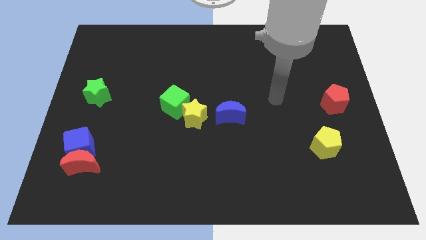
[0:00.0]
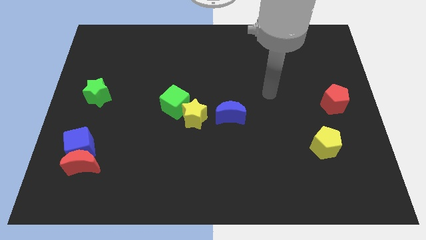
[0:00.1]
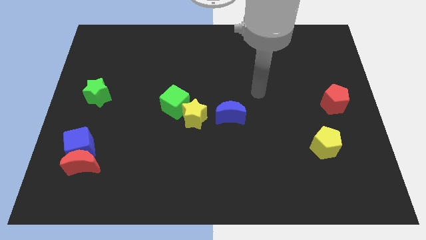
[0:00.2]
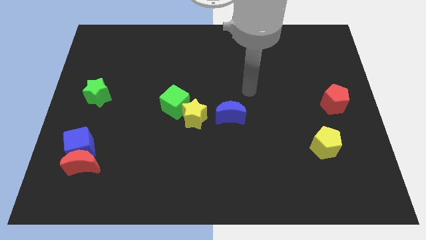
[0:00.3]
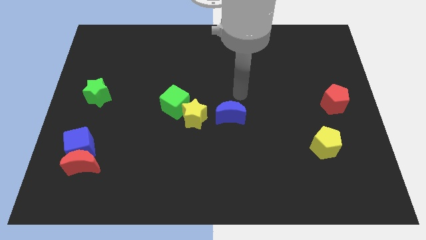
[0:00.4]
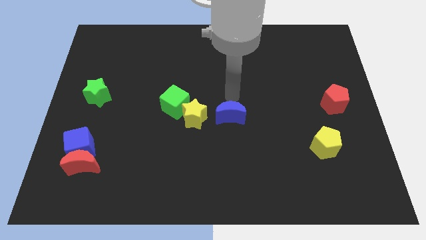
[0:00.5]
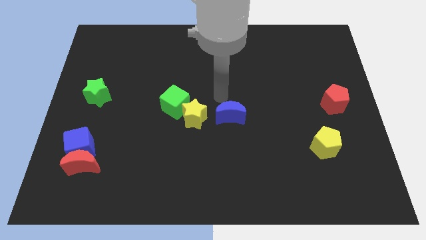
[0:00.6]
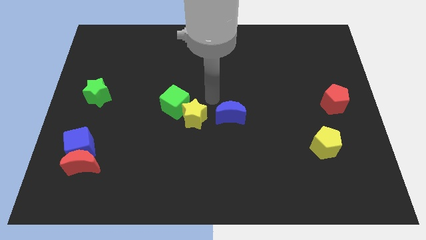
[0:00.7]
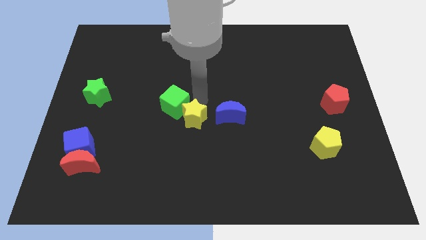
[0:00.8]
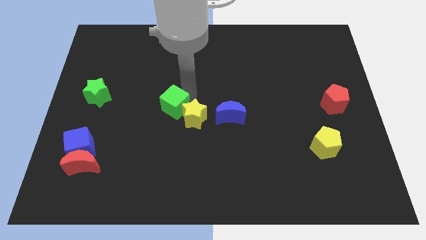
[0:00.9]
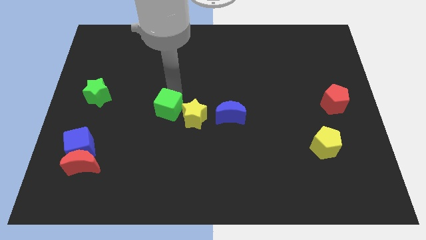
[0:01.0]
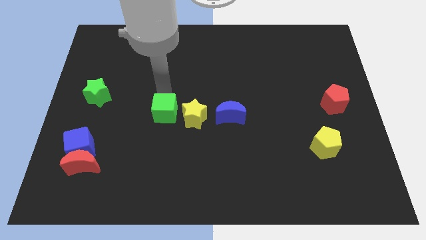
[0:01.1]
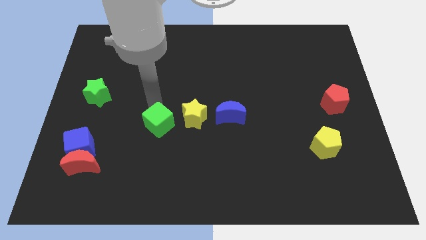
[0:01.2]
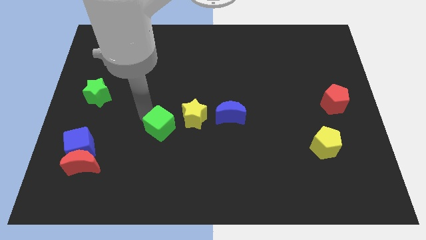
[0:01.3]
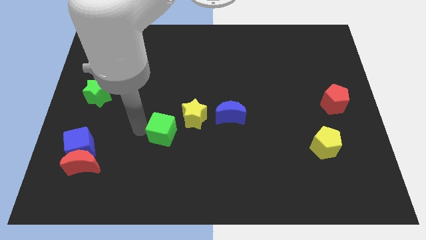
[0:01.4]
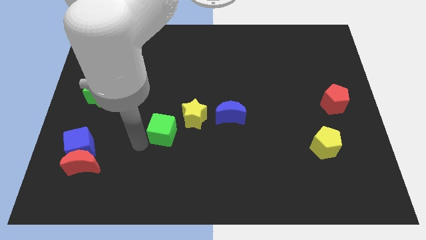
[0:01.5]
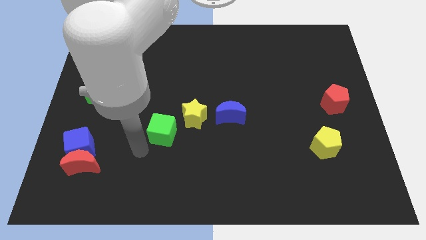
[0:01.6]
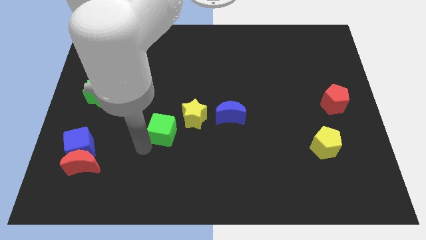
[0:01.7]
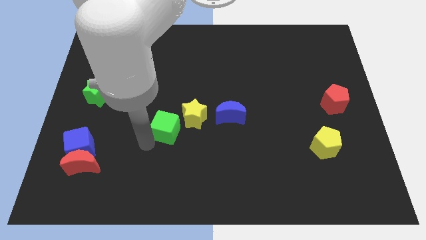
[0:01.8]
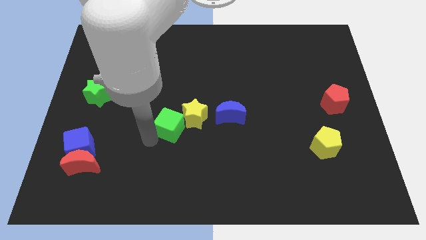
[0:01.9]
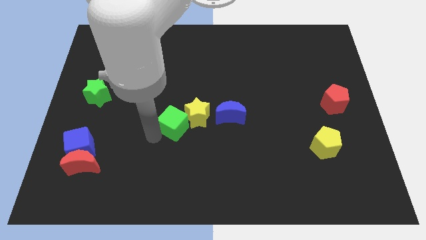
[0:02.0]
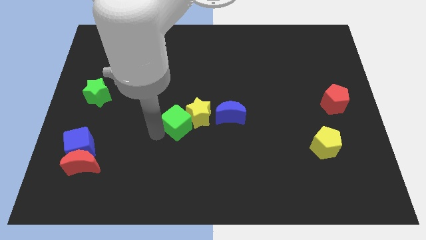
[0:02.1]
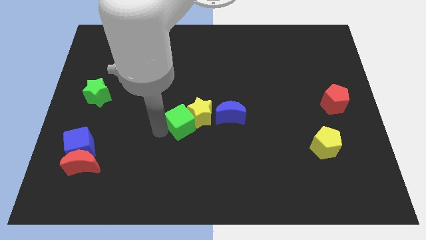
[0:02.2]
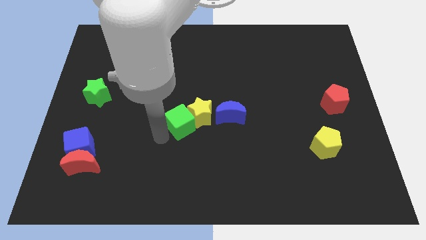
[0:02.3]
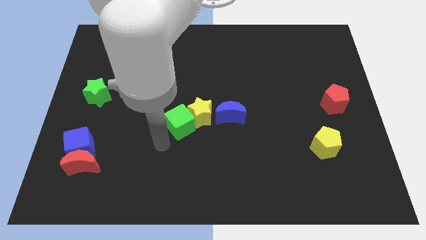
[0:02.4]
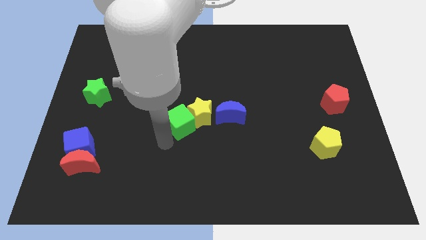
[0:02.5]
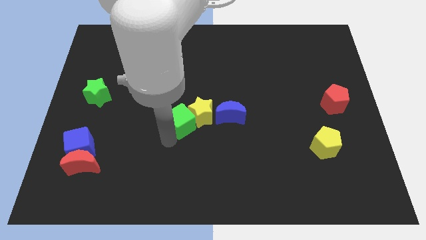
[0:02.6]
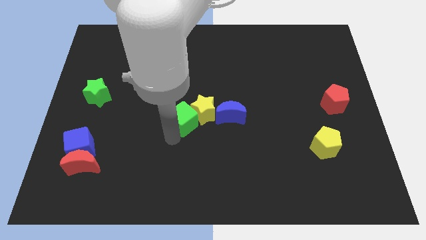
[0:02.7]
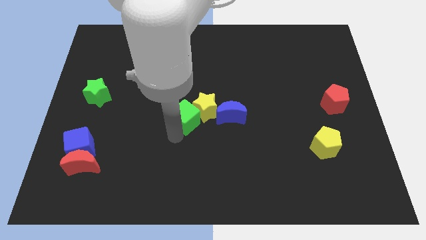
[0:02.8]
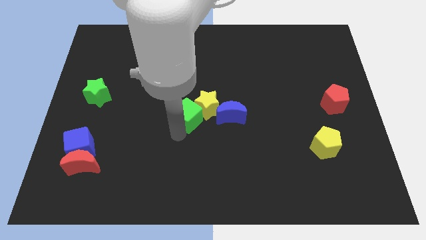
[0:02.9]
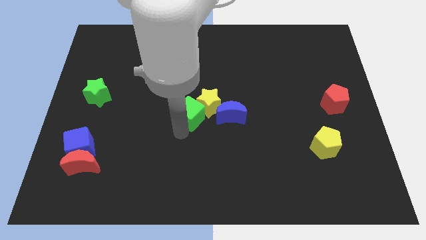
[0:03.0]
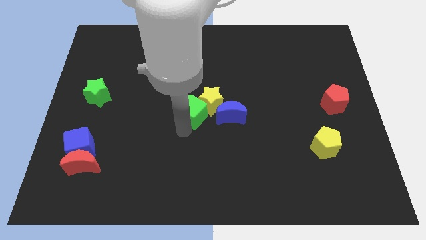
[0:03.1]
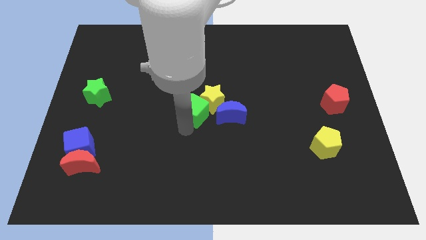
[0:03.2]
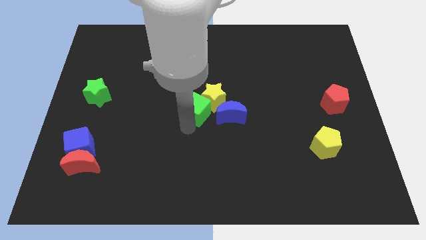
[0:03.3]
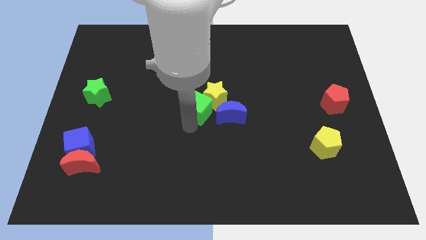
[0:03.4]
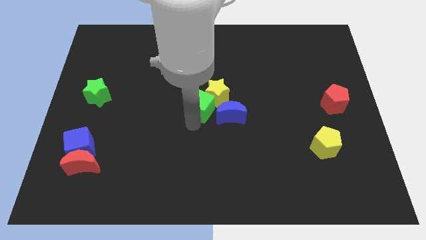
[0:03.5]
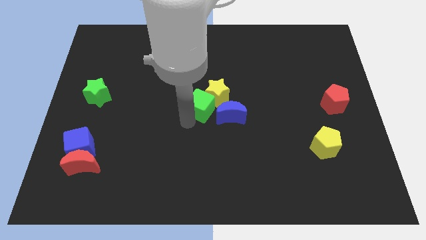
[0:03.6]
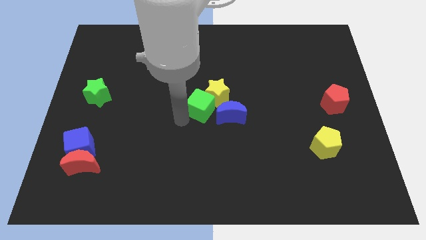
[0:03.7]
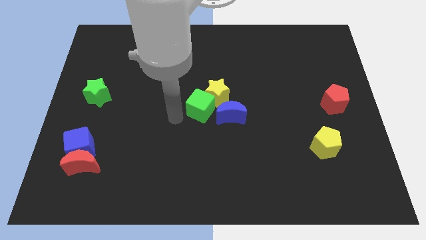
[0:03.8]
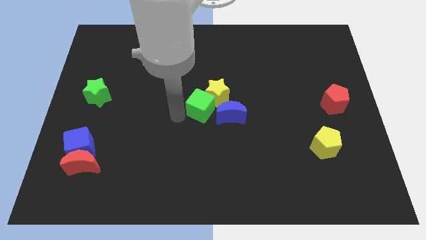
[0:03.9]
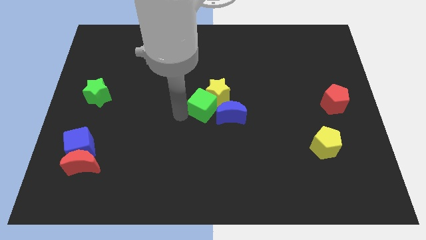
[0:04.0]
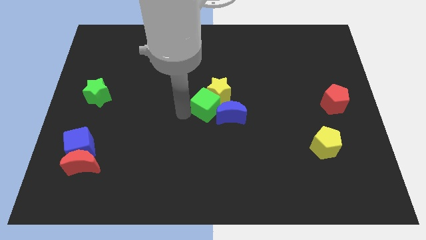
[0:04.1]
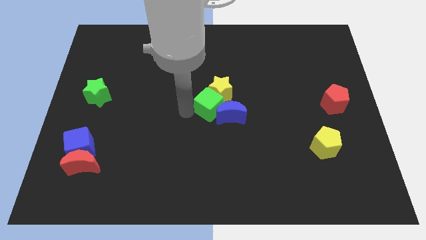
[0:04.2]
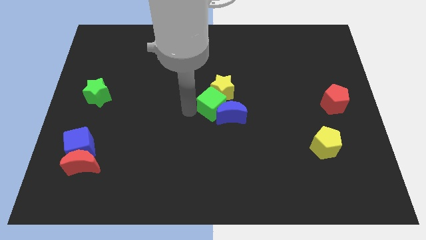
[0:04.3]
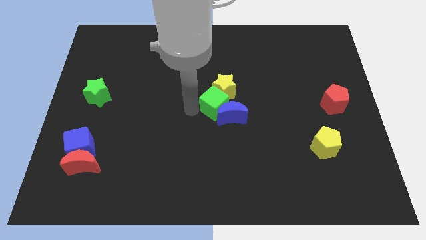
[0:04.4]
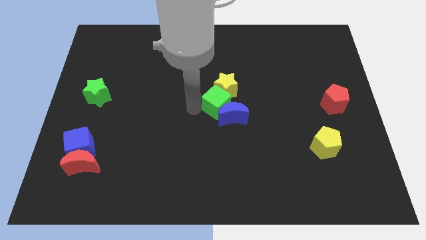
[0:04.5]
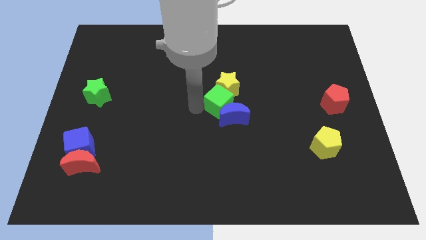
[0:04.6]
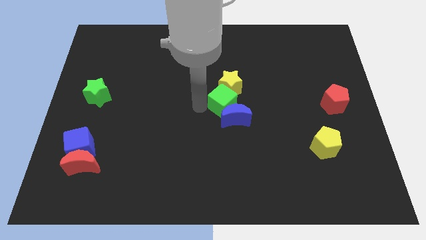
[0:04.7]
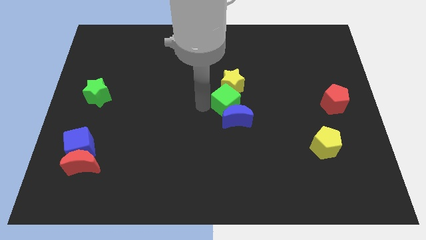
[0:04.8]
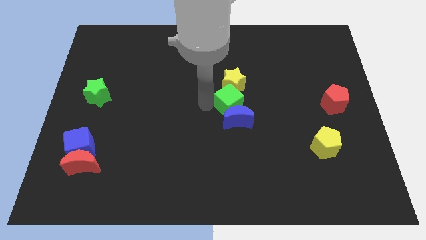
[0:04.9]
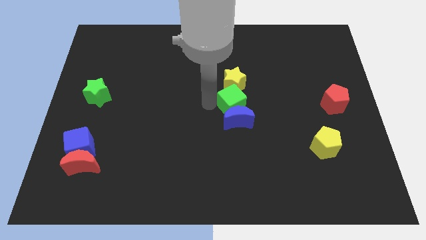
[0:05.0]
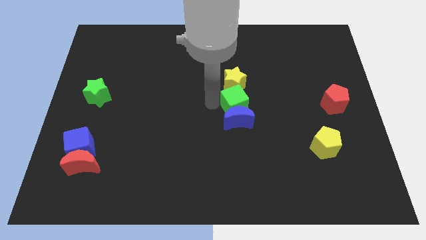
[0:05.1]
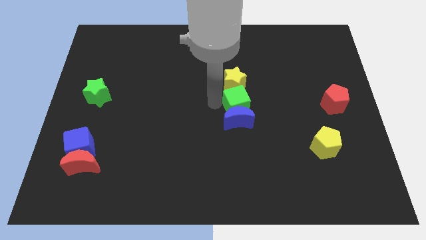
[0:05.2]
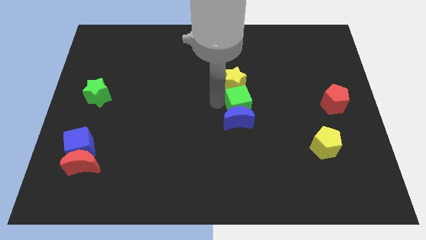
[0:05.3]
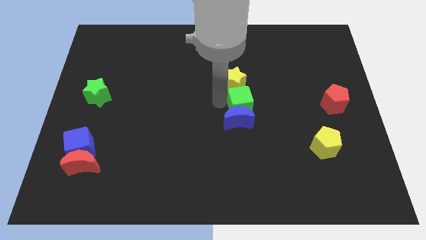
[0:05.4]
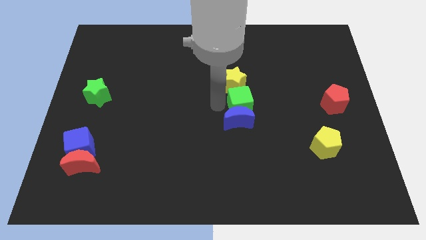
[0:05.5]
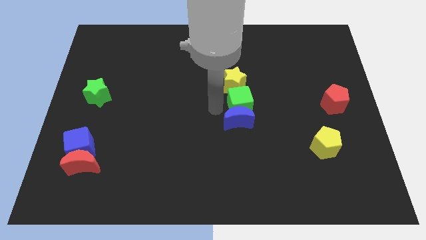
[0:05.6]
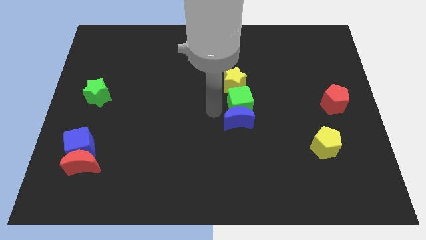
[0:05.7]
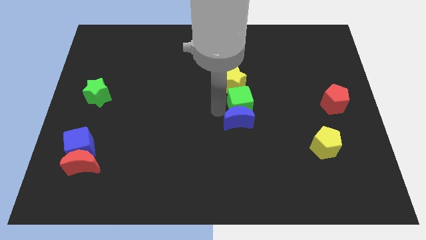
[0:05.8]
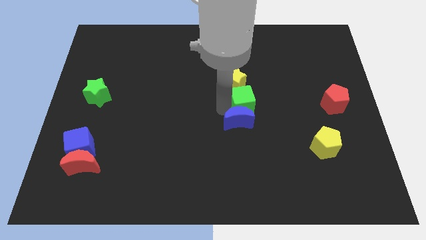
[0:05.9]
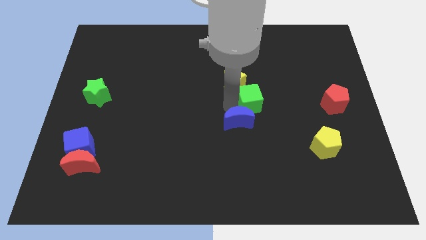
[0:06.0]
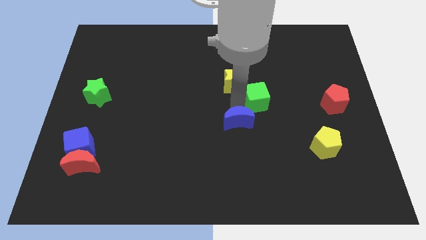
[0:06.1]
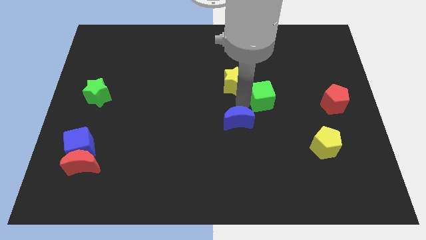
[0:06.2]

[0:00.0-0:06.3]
push the green cube to the right

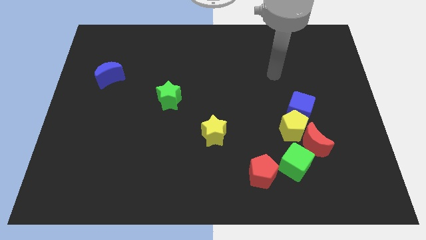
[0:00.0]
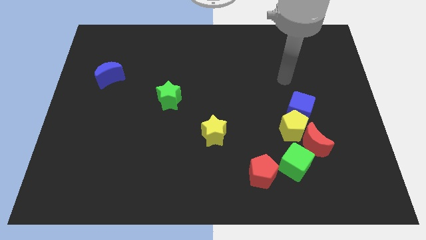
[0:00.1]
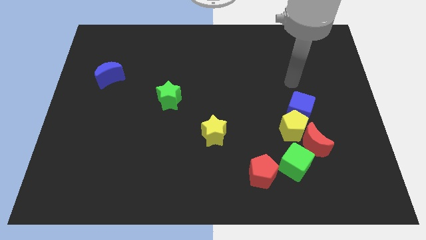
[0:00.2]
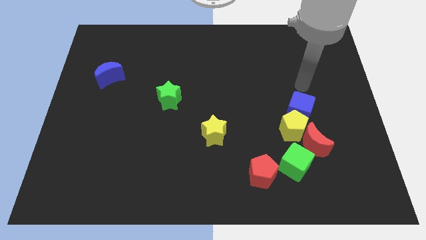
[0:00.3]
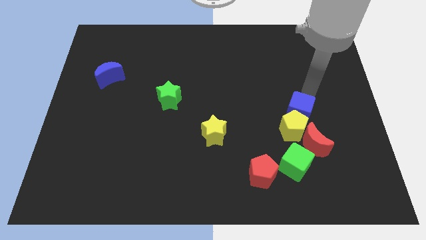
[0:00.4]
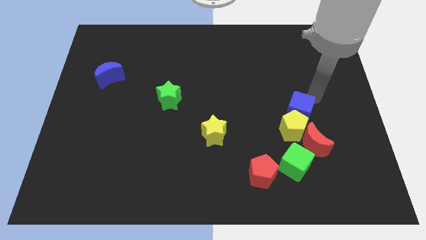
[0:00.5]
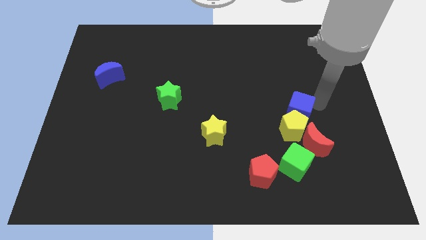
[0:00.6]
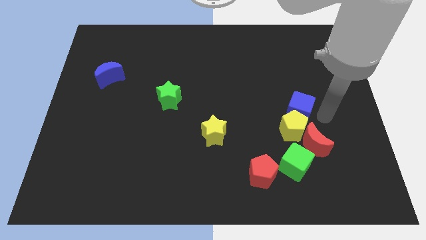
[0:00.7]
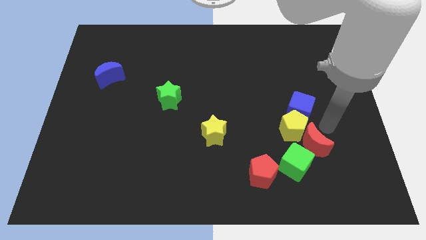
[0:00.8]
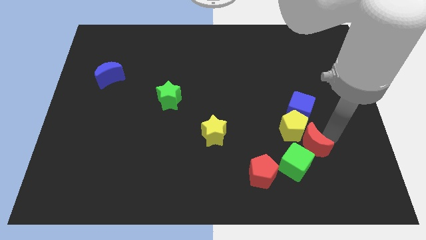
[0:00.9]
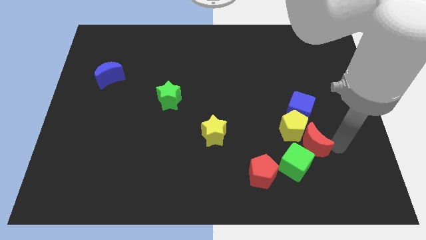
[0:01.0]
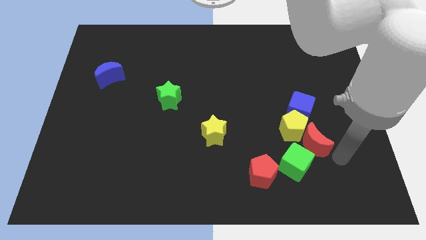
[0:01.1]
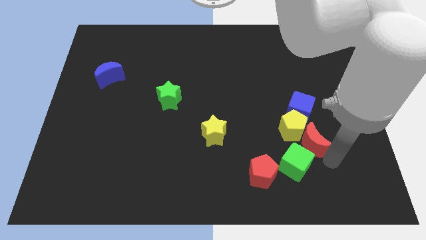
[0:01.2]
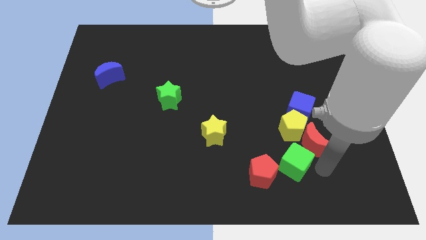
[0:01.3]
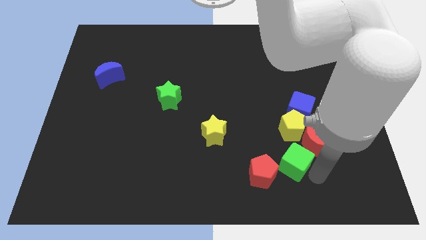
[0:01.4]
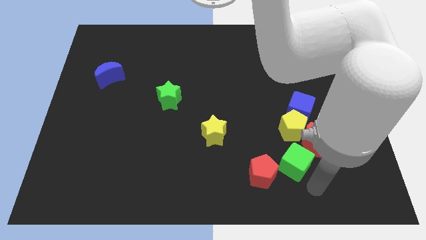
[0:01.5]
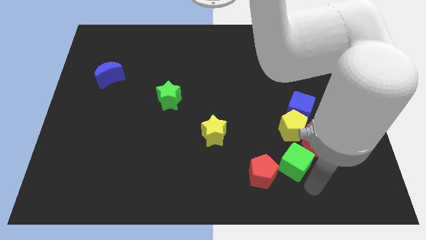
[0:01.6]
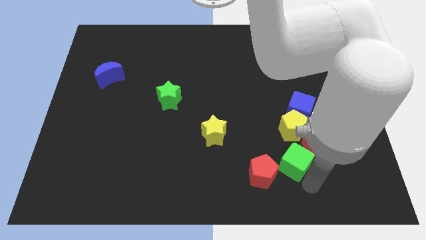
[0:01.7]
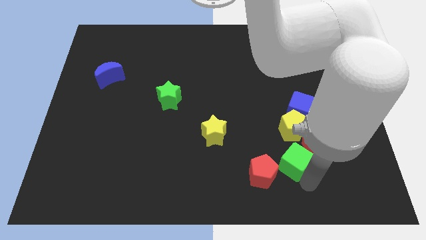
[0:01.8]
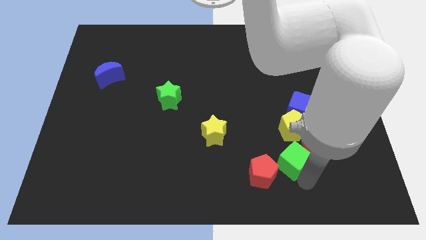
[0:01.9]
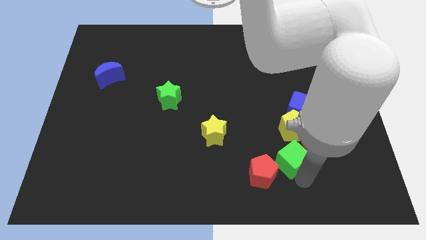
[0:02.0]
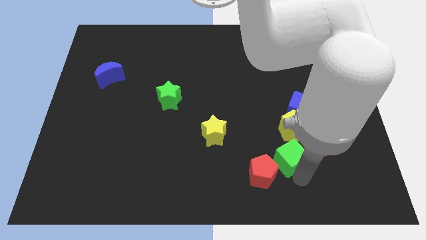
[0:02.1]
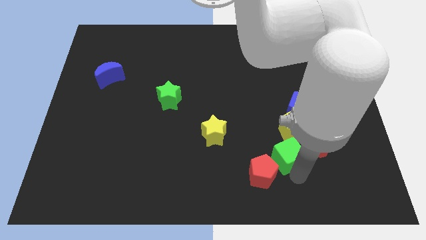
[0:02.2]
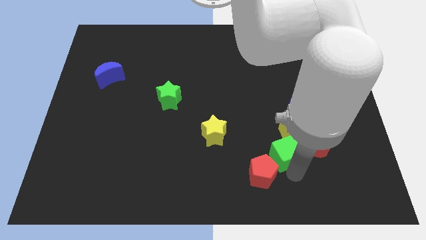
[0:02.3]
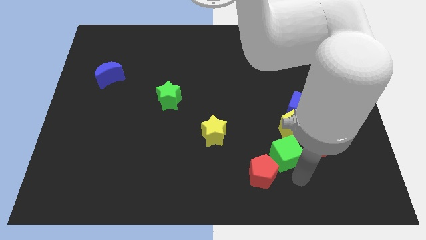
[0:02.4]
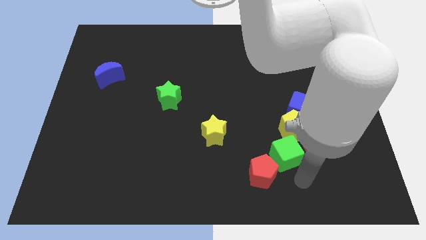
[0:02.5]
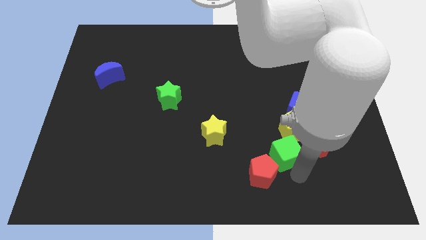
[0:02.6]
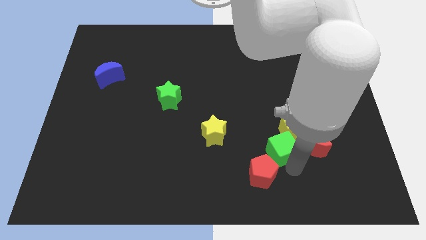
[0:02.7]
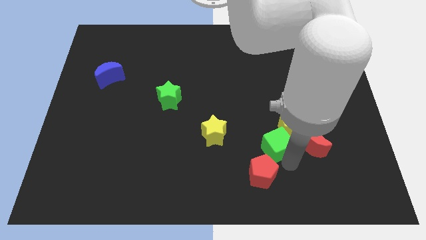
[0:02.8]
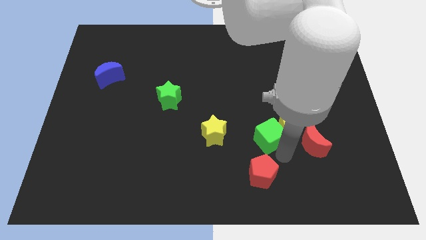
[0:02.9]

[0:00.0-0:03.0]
slide the green cube slightly upwards and then left
